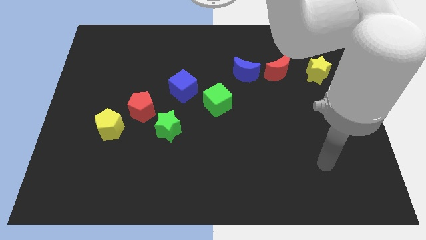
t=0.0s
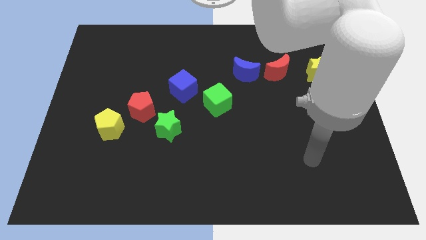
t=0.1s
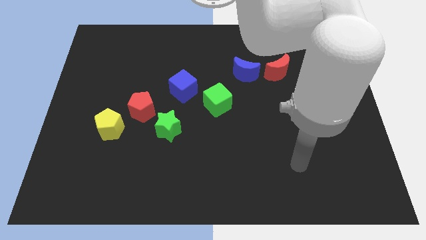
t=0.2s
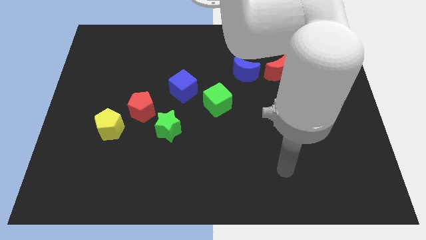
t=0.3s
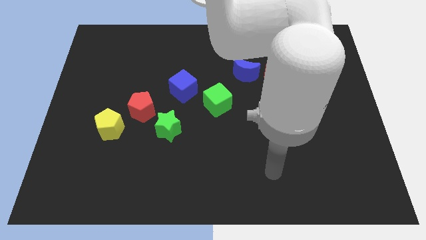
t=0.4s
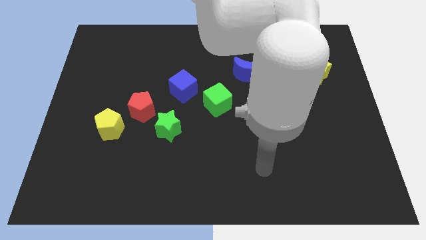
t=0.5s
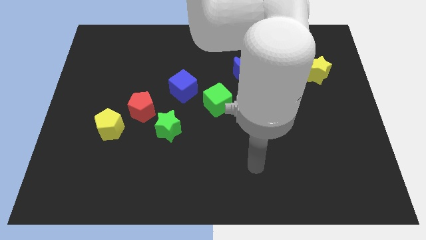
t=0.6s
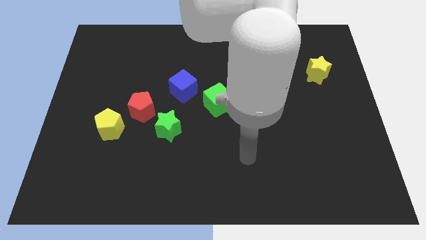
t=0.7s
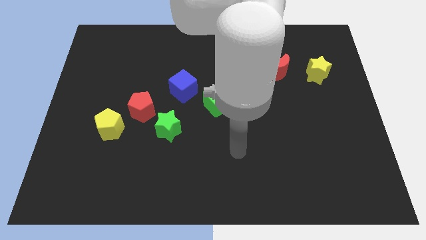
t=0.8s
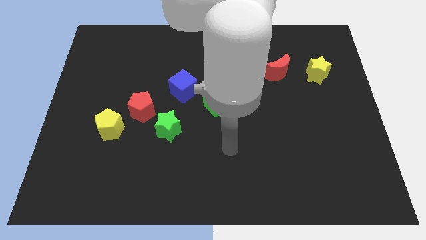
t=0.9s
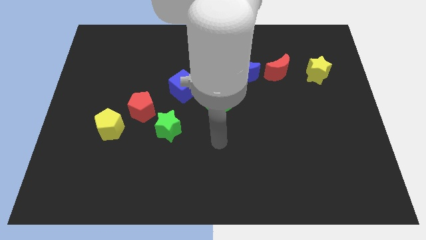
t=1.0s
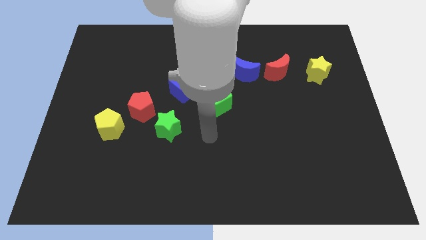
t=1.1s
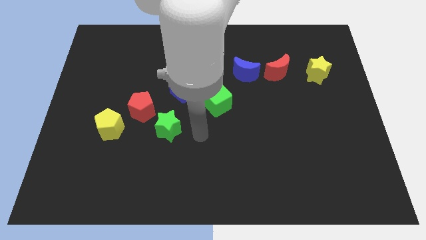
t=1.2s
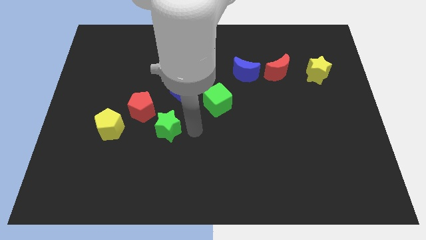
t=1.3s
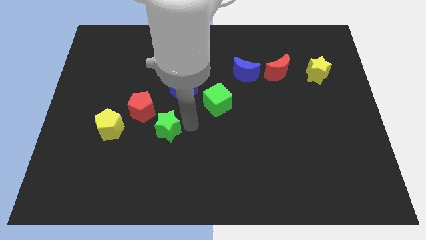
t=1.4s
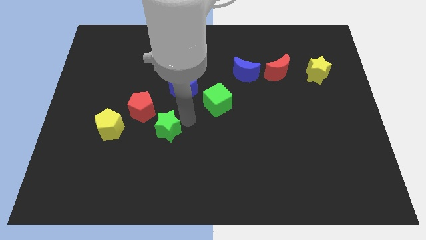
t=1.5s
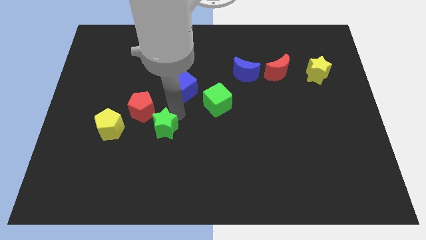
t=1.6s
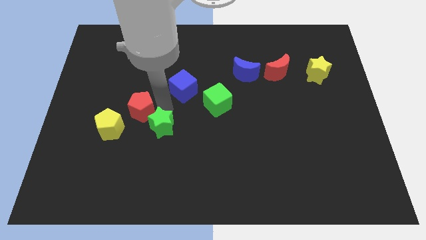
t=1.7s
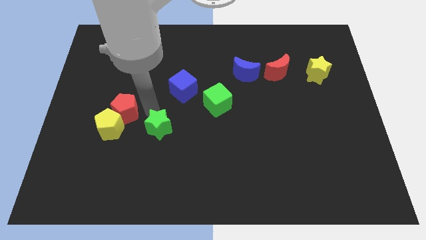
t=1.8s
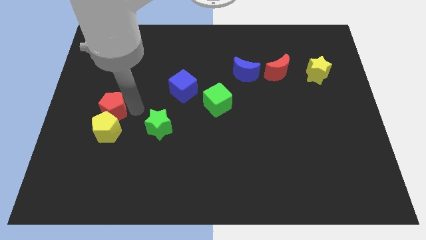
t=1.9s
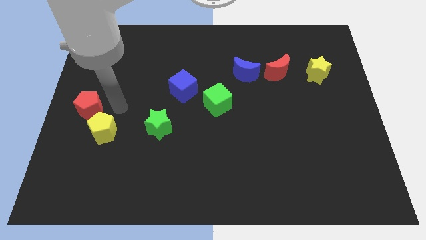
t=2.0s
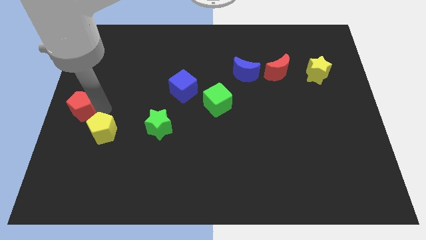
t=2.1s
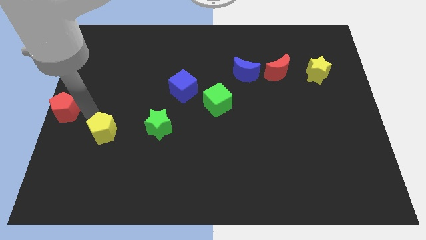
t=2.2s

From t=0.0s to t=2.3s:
pull the yellow pentagon apart from the red pentagon

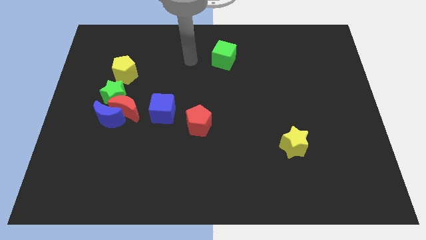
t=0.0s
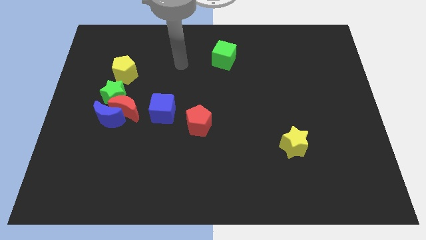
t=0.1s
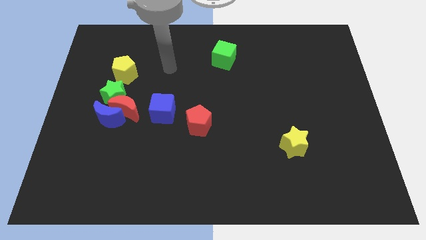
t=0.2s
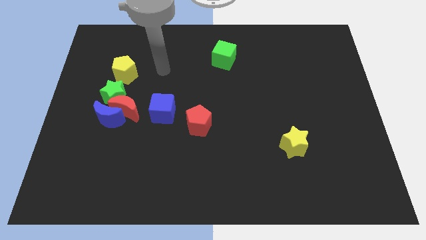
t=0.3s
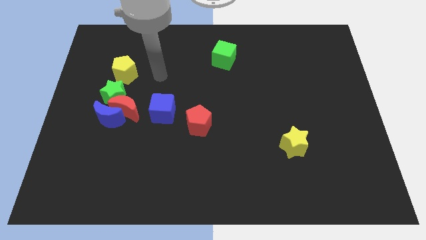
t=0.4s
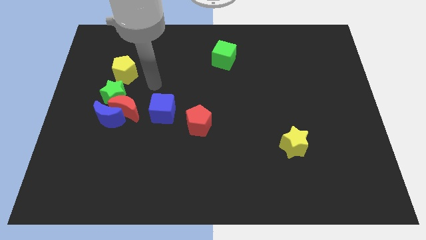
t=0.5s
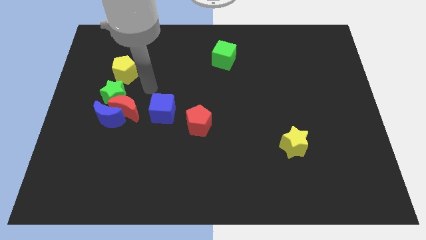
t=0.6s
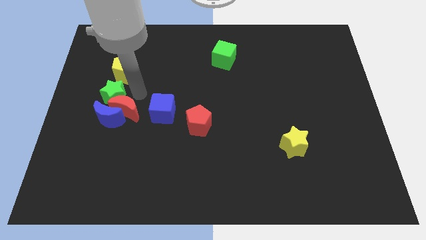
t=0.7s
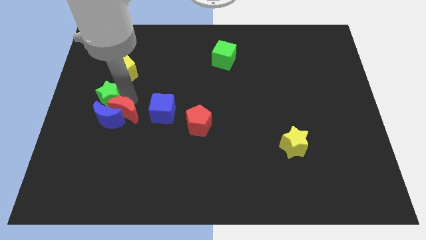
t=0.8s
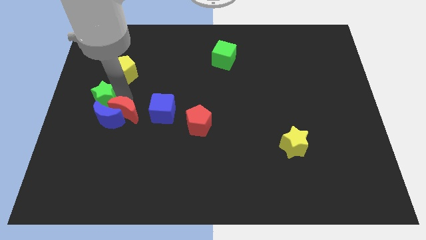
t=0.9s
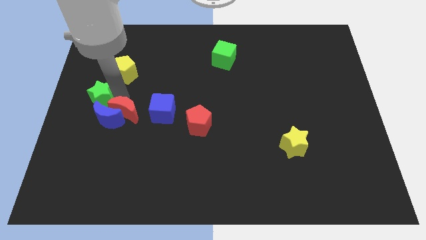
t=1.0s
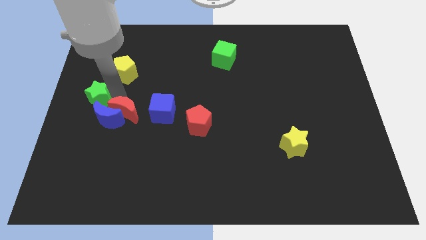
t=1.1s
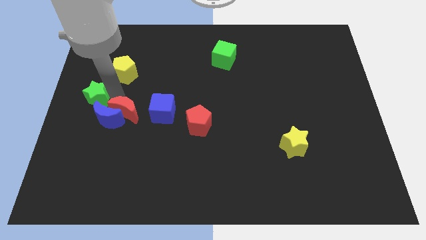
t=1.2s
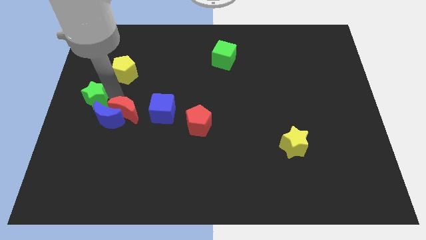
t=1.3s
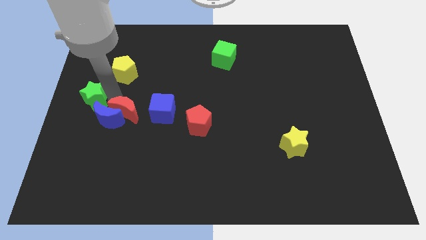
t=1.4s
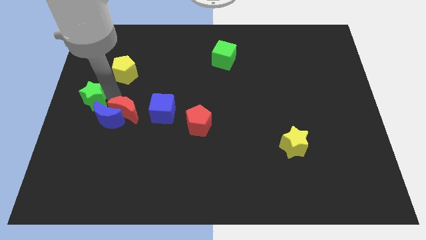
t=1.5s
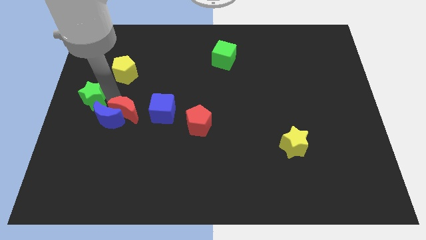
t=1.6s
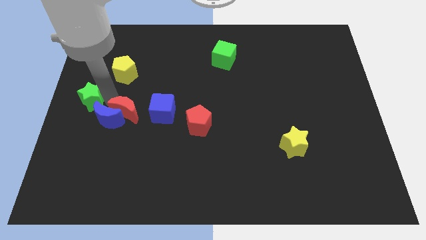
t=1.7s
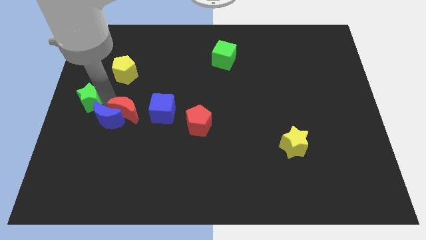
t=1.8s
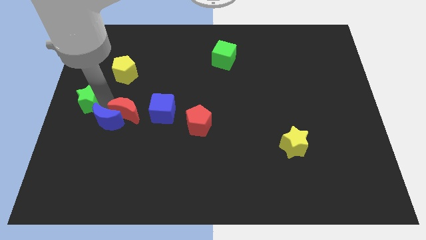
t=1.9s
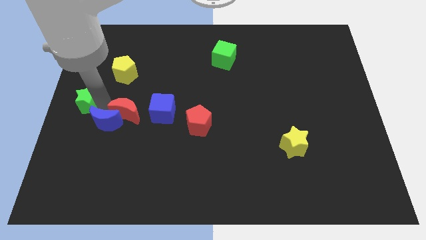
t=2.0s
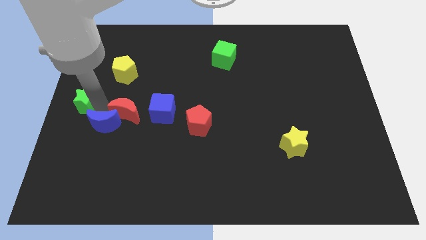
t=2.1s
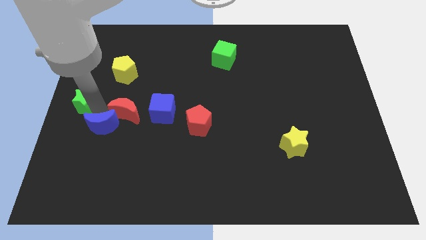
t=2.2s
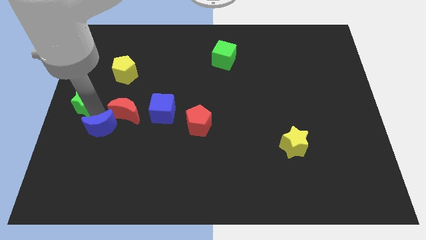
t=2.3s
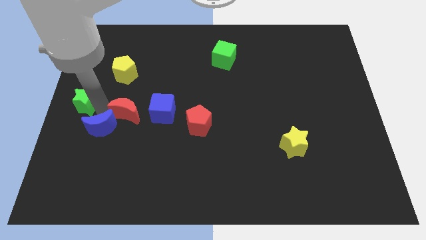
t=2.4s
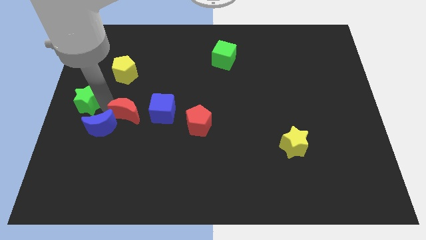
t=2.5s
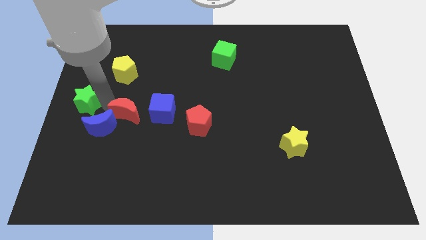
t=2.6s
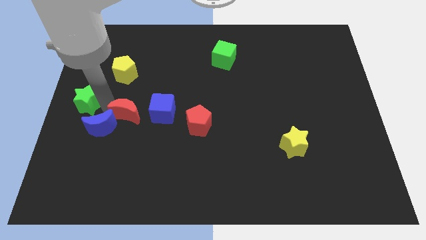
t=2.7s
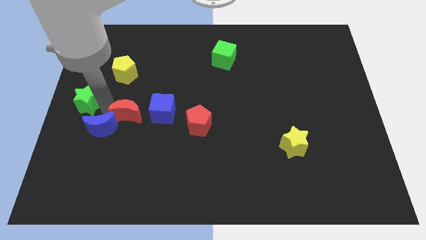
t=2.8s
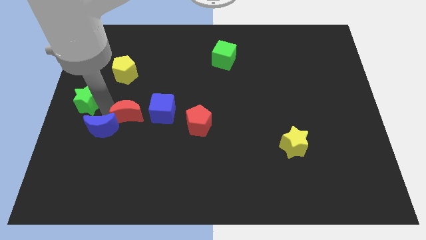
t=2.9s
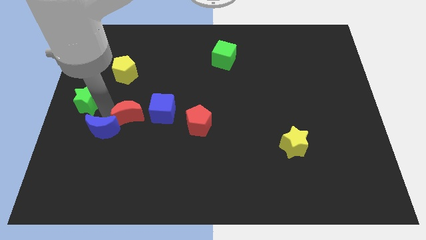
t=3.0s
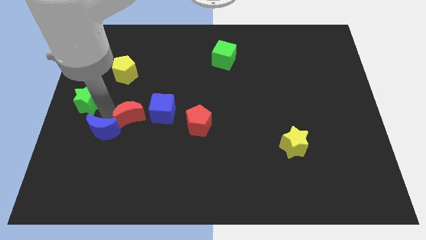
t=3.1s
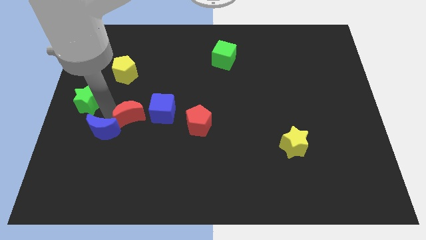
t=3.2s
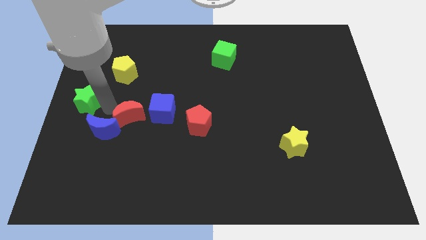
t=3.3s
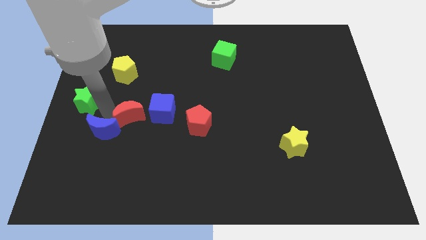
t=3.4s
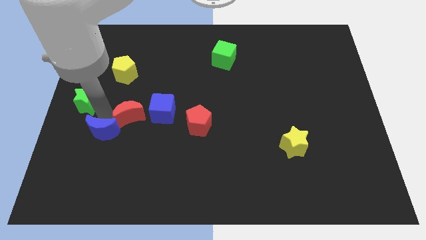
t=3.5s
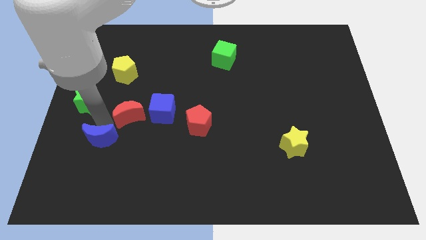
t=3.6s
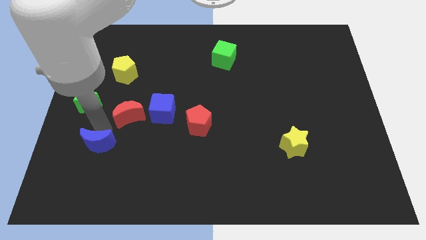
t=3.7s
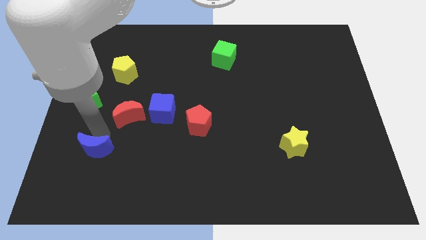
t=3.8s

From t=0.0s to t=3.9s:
move the blue moon away from the red moon and green star

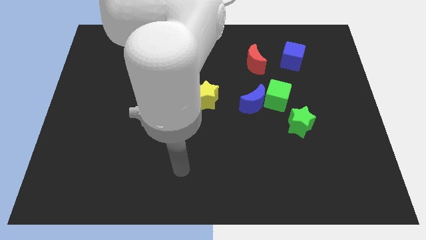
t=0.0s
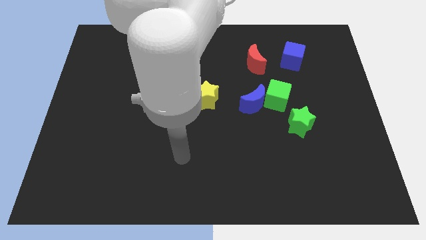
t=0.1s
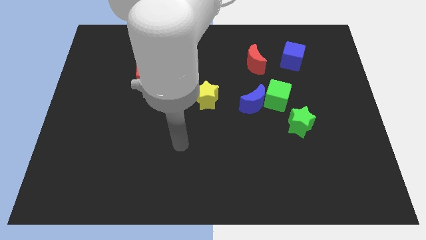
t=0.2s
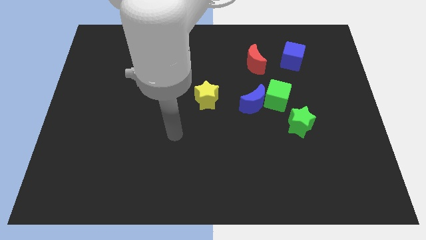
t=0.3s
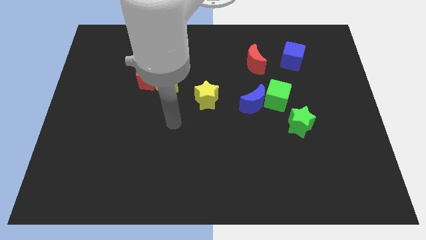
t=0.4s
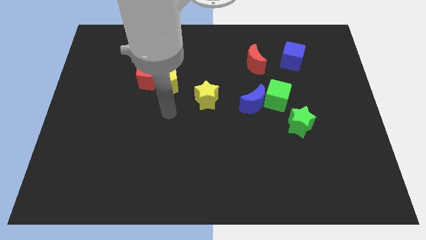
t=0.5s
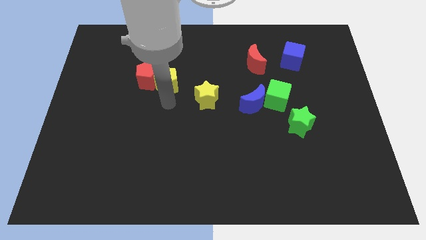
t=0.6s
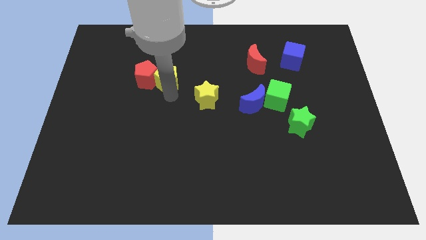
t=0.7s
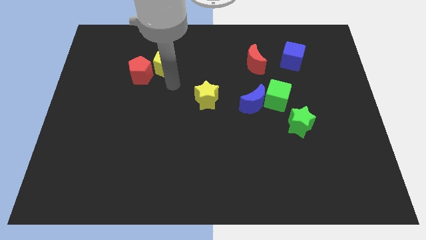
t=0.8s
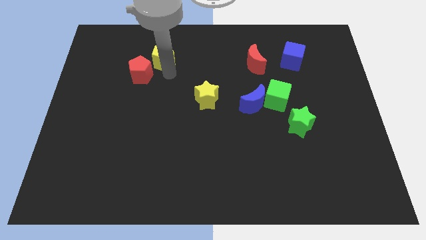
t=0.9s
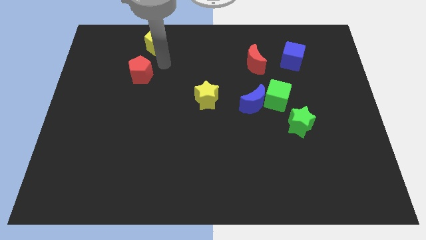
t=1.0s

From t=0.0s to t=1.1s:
move the red pentagon away from the yellow pentagon

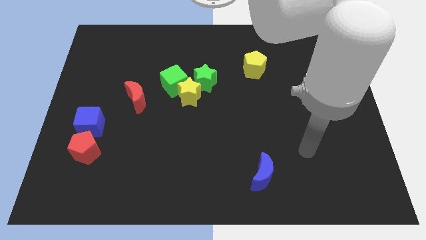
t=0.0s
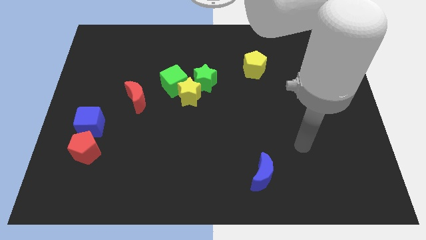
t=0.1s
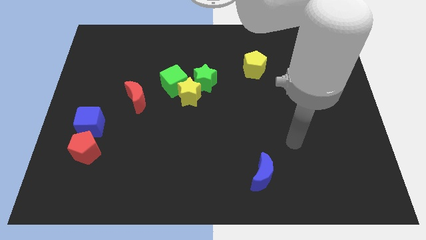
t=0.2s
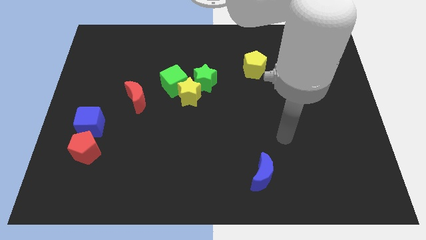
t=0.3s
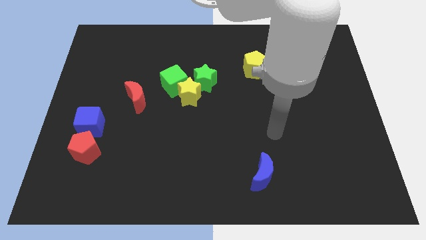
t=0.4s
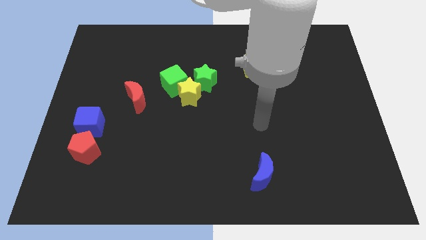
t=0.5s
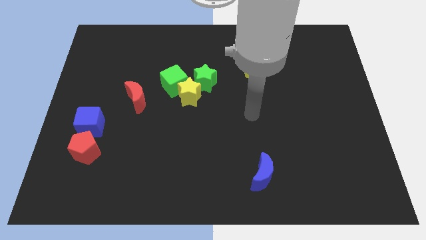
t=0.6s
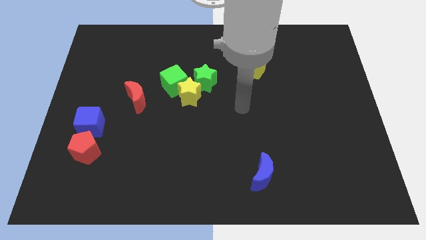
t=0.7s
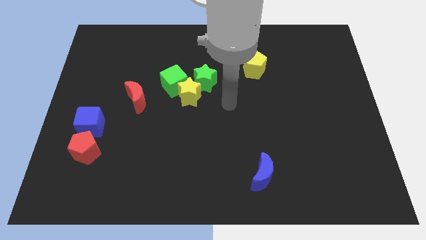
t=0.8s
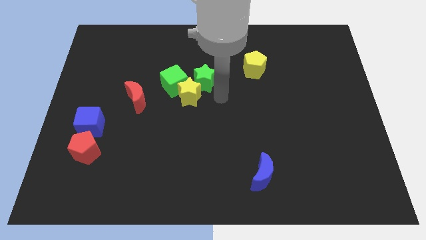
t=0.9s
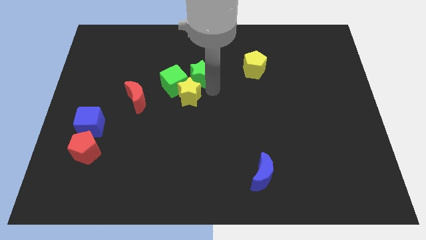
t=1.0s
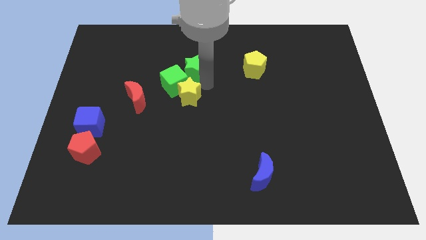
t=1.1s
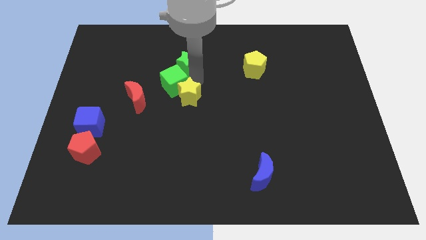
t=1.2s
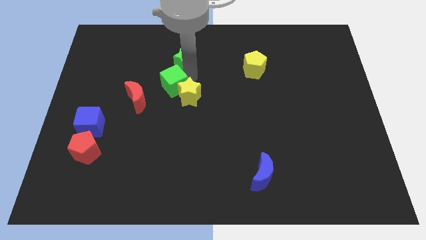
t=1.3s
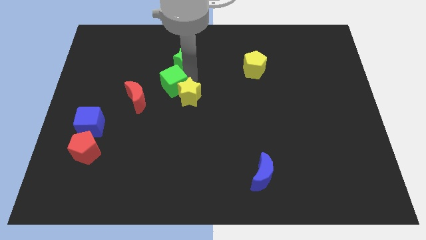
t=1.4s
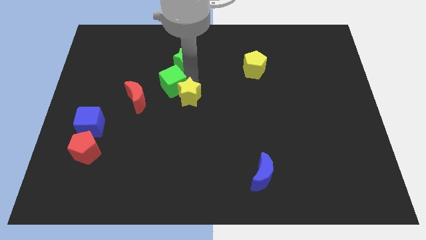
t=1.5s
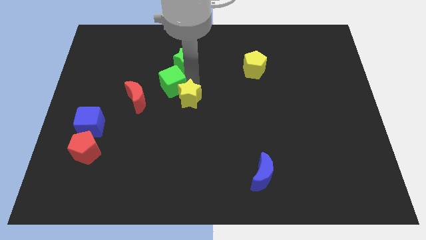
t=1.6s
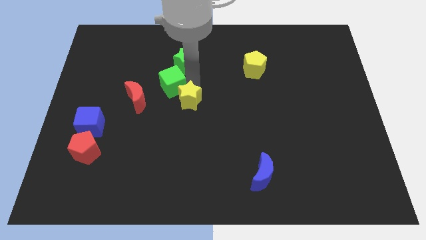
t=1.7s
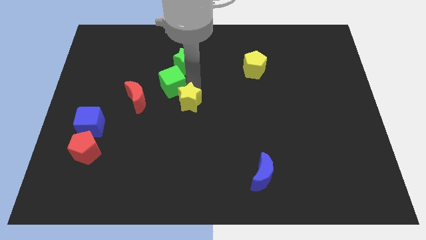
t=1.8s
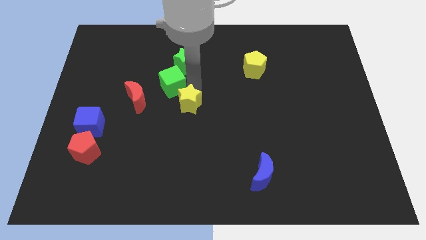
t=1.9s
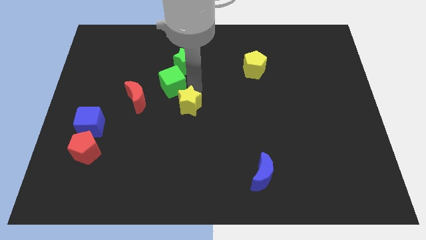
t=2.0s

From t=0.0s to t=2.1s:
pull the yellow star apart from the green star and green cube

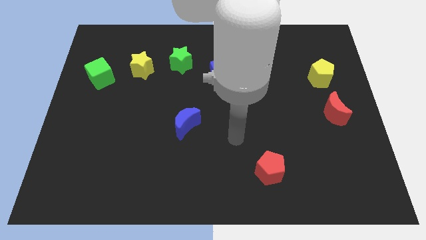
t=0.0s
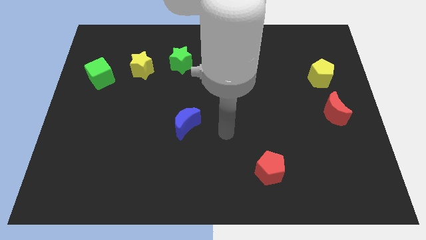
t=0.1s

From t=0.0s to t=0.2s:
pull the green star apart from the yellow star
